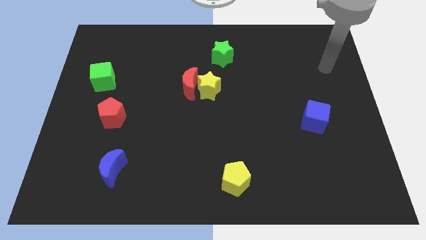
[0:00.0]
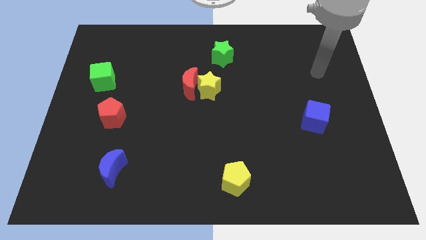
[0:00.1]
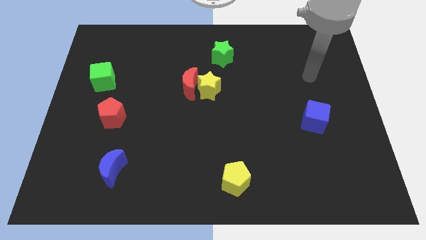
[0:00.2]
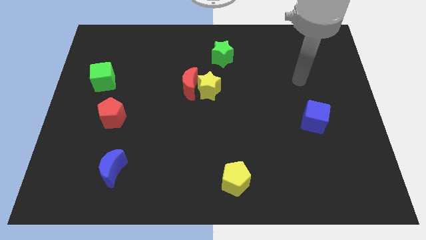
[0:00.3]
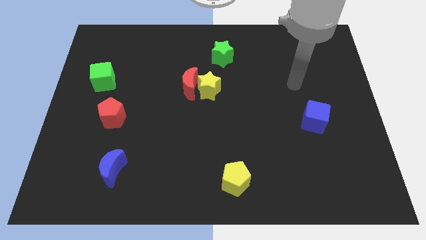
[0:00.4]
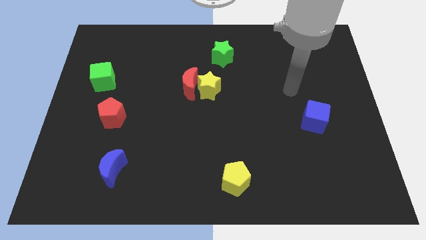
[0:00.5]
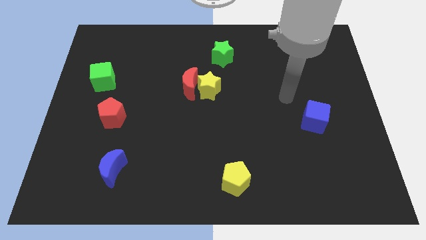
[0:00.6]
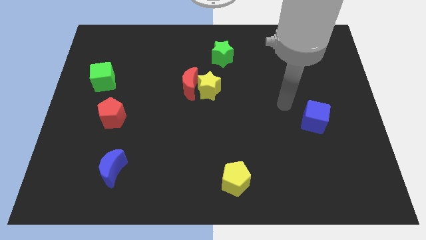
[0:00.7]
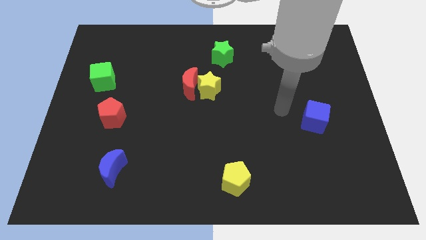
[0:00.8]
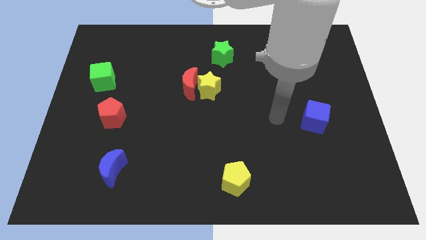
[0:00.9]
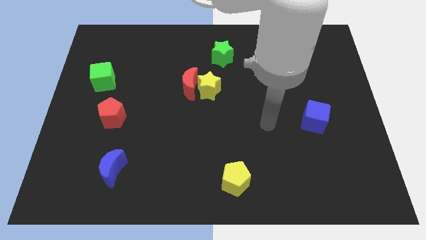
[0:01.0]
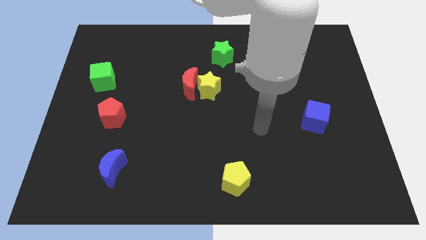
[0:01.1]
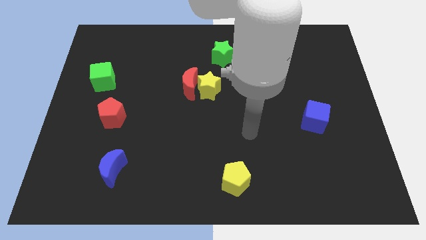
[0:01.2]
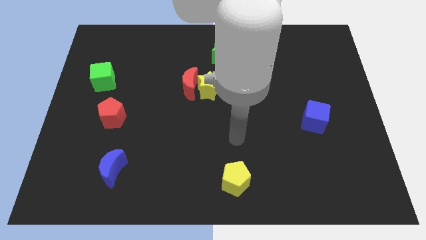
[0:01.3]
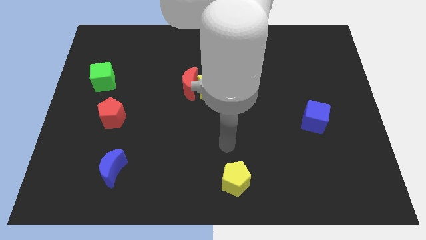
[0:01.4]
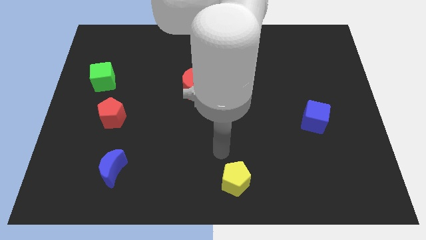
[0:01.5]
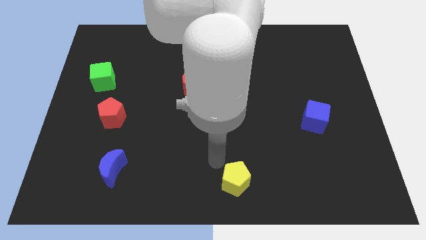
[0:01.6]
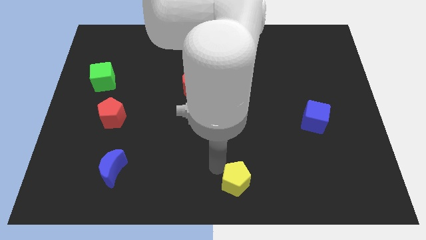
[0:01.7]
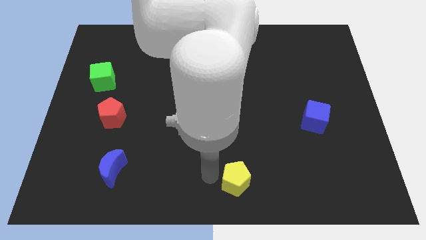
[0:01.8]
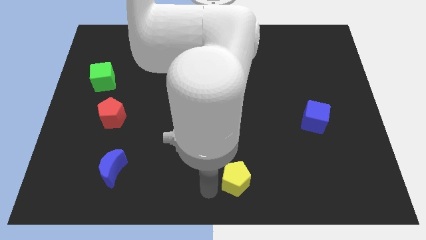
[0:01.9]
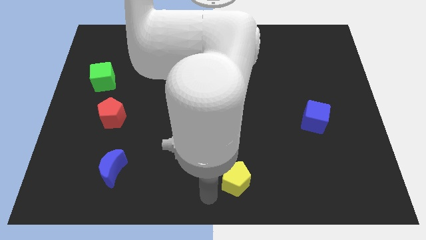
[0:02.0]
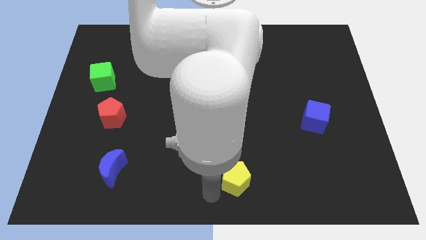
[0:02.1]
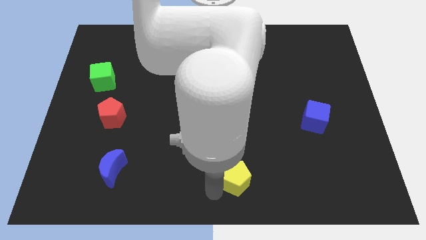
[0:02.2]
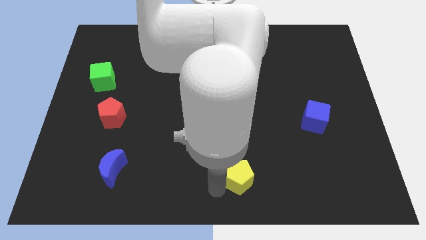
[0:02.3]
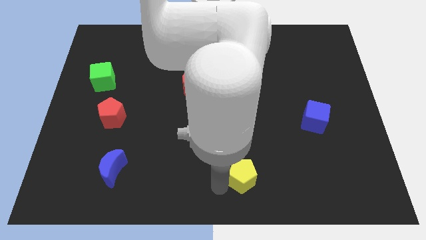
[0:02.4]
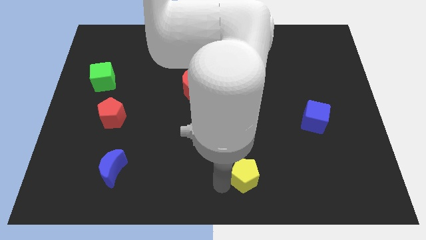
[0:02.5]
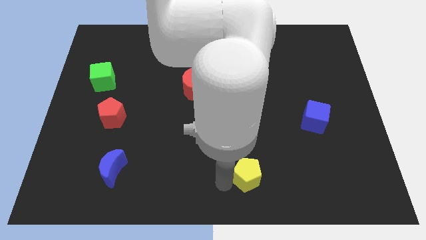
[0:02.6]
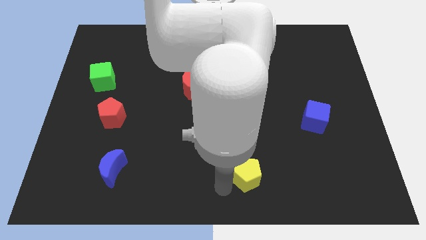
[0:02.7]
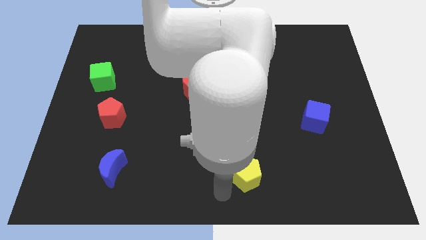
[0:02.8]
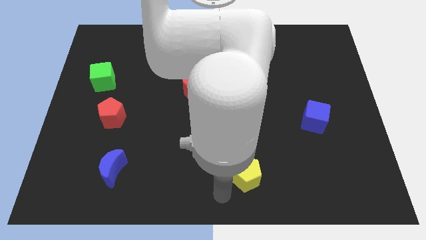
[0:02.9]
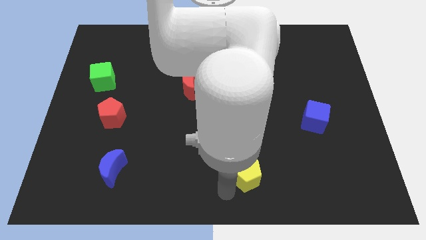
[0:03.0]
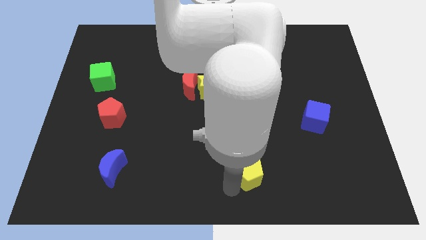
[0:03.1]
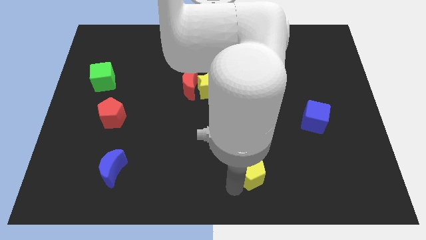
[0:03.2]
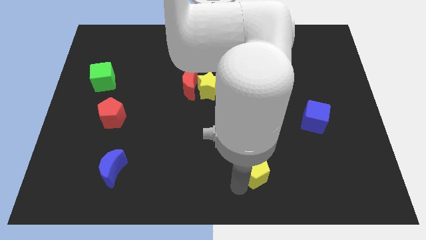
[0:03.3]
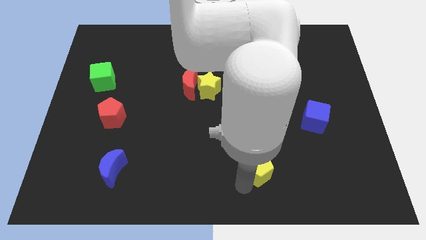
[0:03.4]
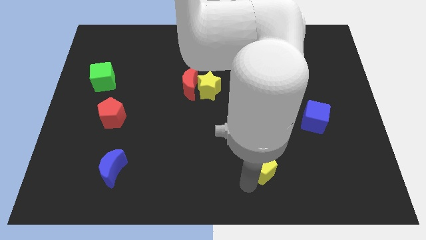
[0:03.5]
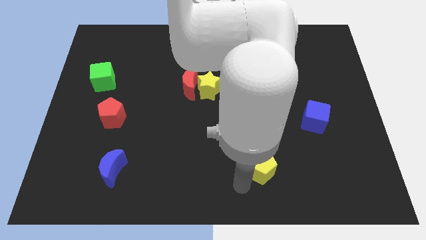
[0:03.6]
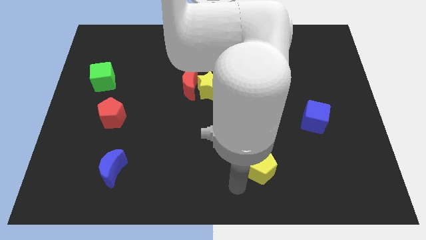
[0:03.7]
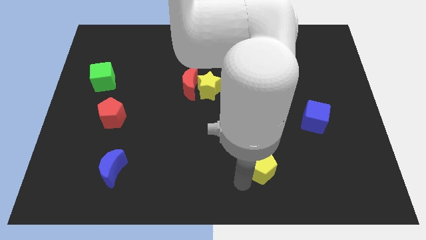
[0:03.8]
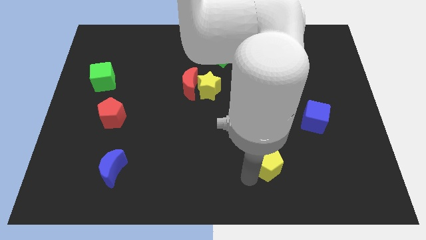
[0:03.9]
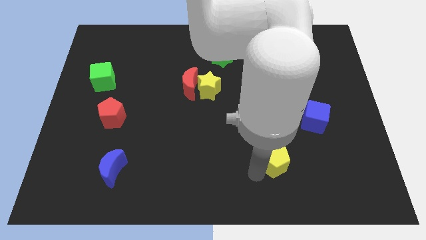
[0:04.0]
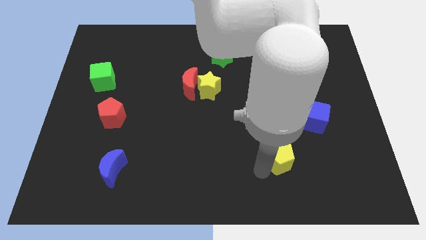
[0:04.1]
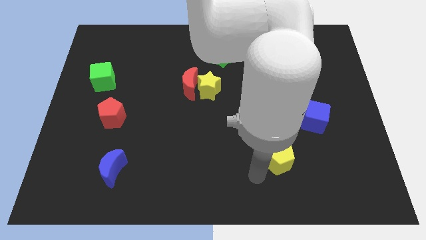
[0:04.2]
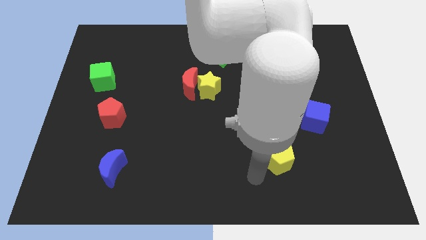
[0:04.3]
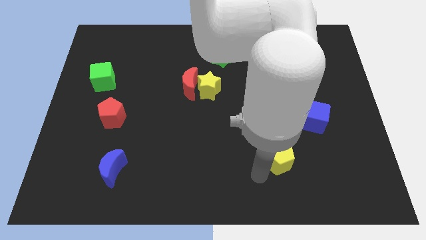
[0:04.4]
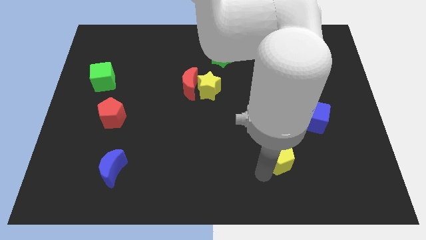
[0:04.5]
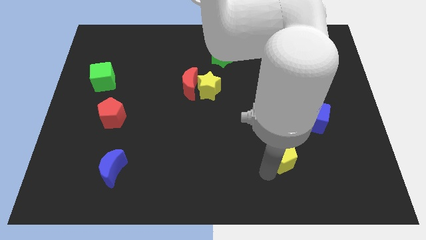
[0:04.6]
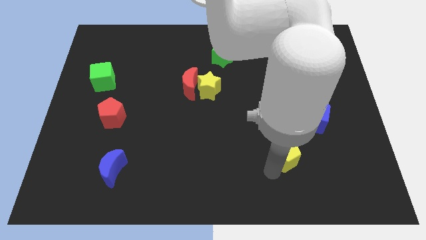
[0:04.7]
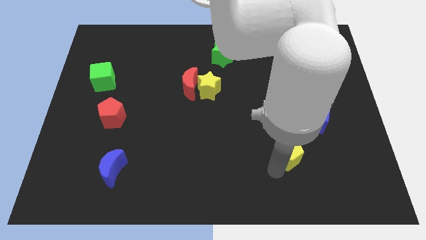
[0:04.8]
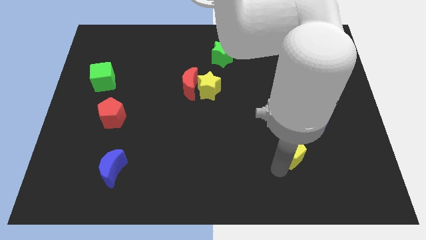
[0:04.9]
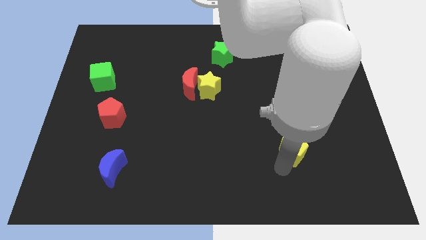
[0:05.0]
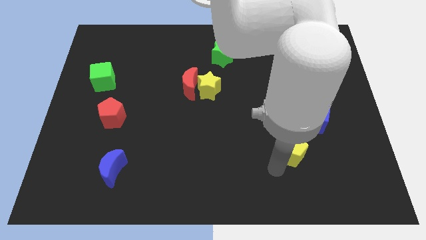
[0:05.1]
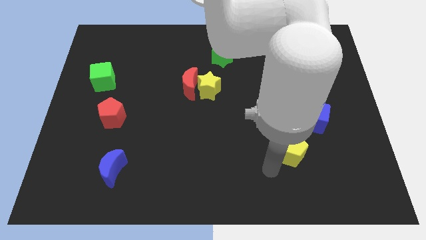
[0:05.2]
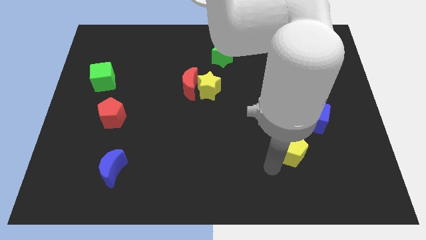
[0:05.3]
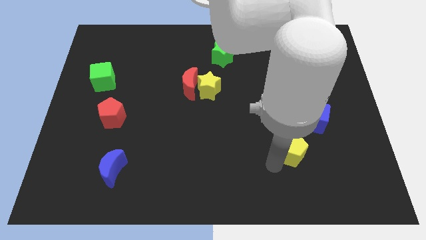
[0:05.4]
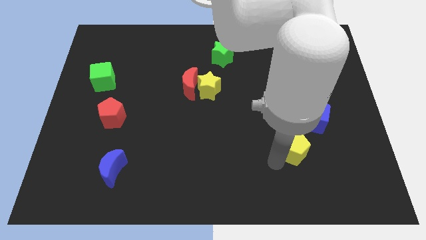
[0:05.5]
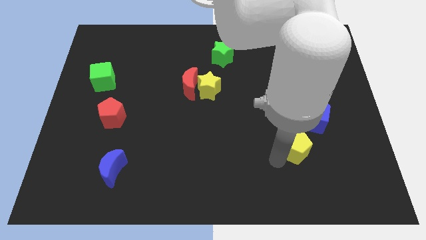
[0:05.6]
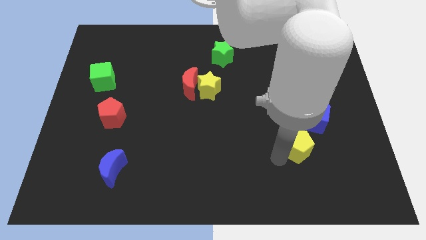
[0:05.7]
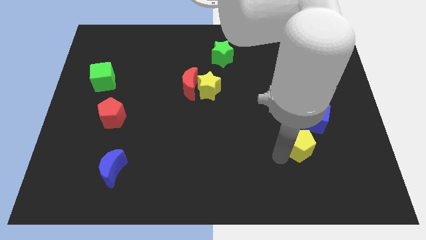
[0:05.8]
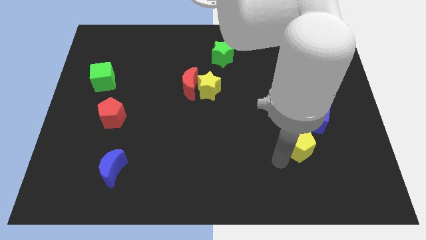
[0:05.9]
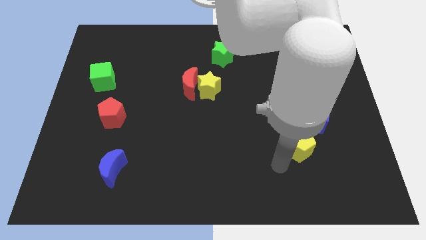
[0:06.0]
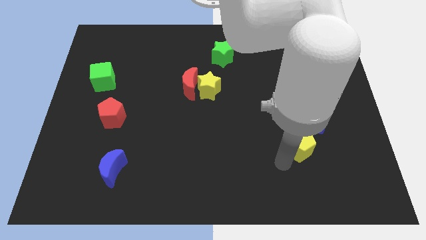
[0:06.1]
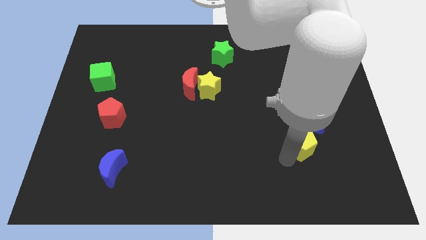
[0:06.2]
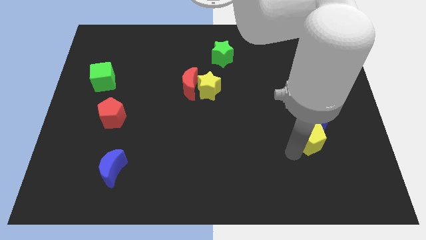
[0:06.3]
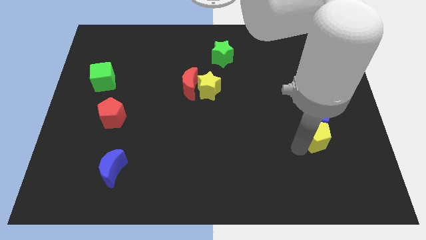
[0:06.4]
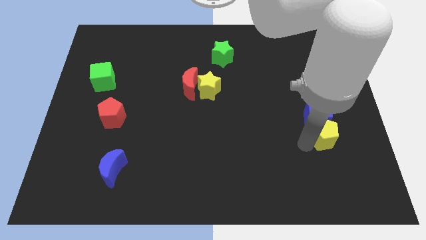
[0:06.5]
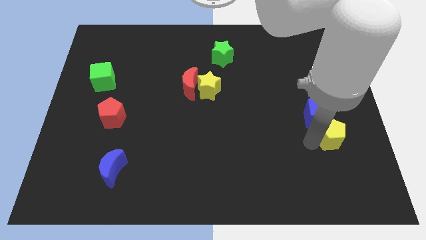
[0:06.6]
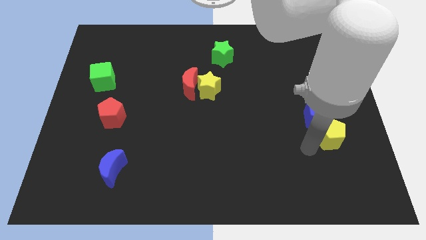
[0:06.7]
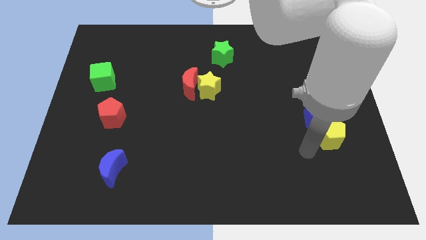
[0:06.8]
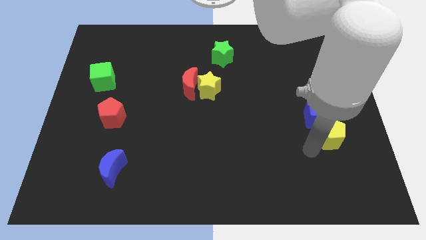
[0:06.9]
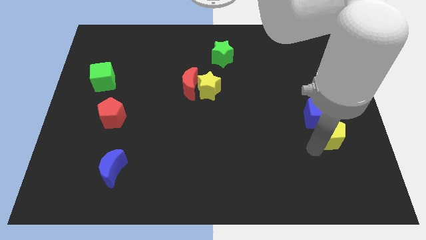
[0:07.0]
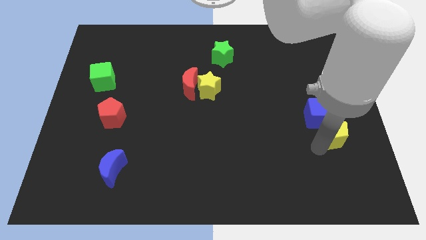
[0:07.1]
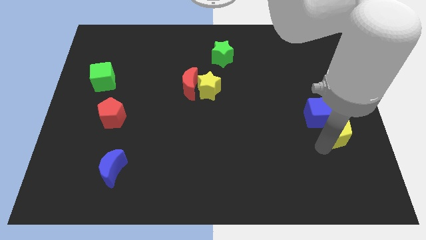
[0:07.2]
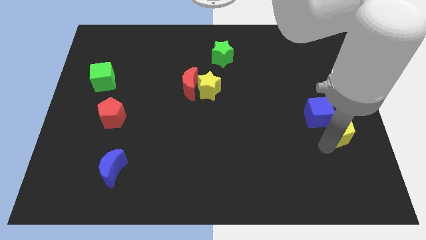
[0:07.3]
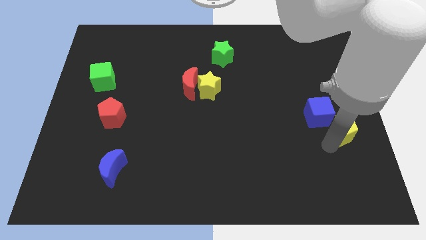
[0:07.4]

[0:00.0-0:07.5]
put the yellow pentagon to the center right
